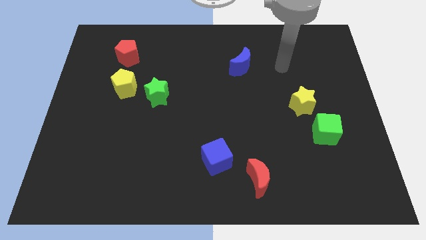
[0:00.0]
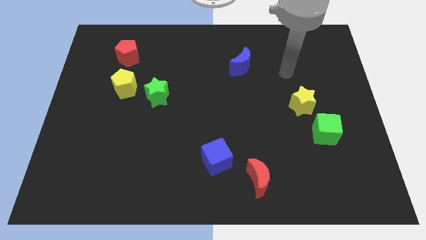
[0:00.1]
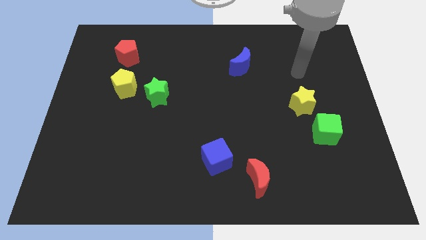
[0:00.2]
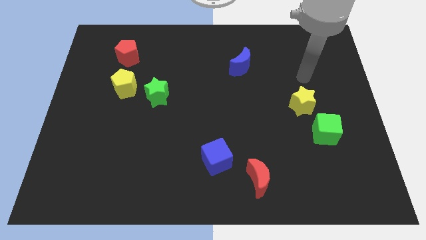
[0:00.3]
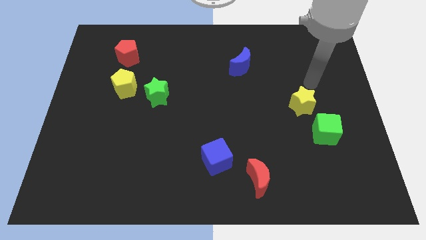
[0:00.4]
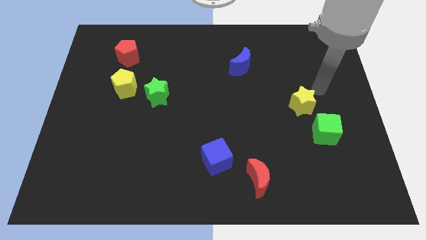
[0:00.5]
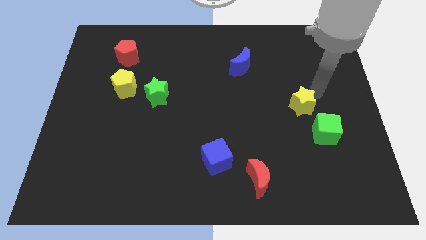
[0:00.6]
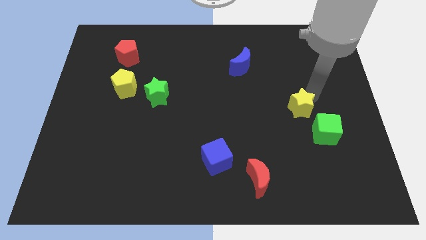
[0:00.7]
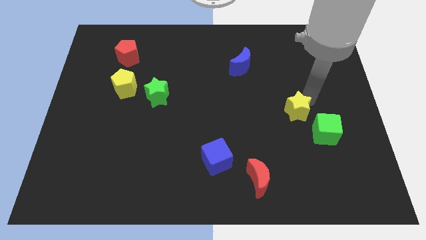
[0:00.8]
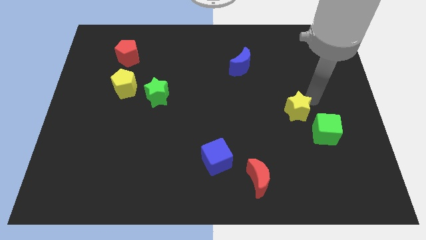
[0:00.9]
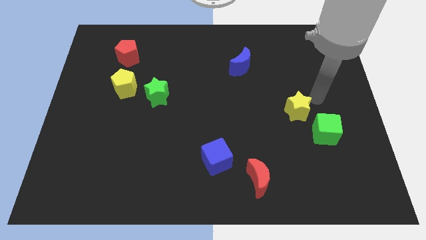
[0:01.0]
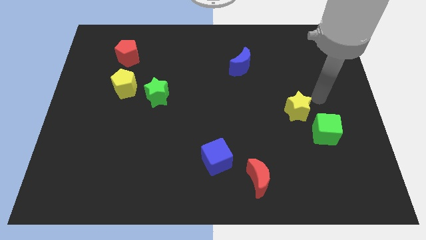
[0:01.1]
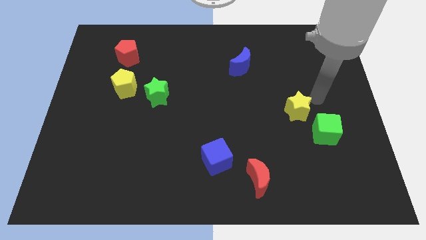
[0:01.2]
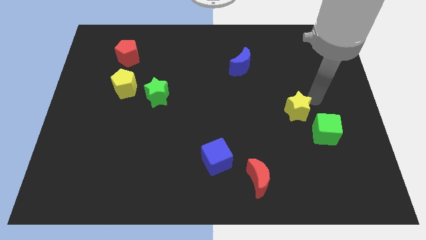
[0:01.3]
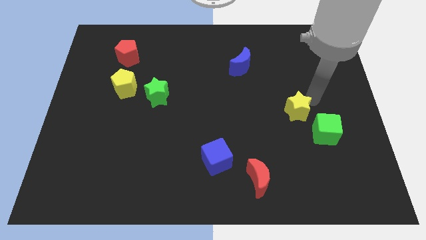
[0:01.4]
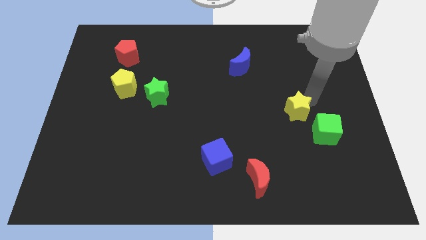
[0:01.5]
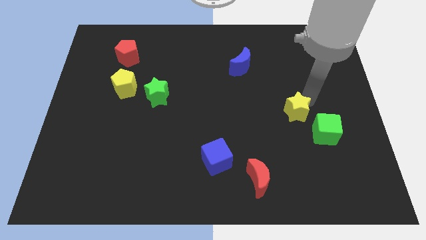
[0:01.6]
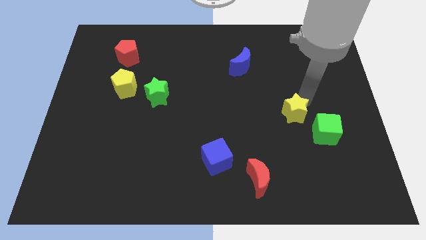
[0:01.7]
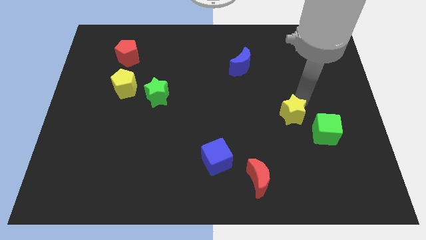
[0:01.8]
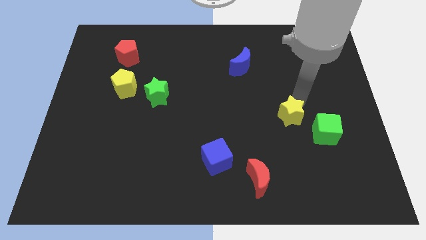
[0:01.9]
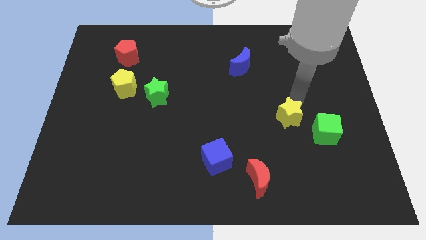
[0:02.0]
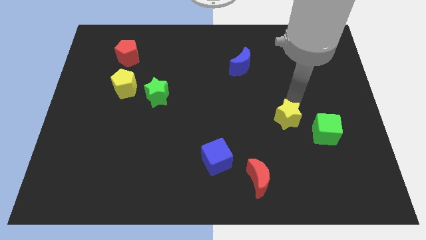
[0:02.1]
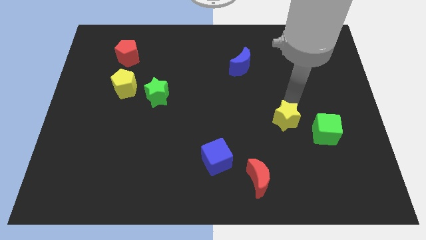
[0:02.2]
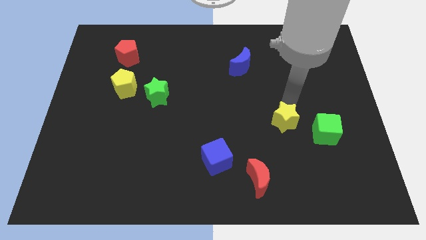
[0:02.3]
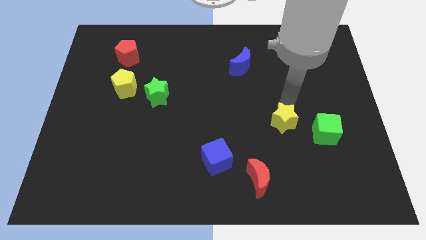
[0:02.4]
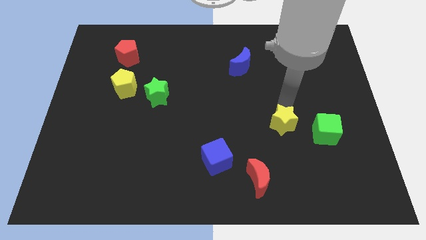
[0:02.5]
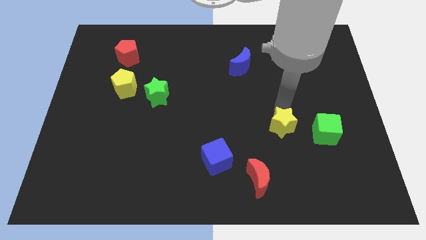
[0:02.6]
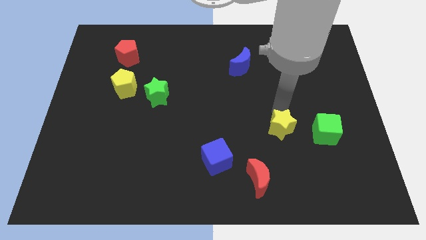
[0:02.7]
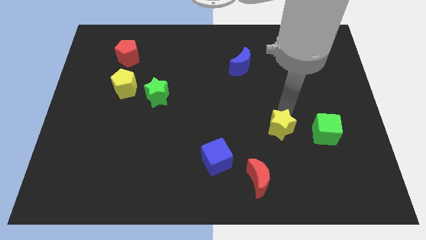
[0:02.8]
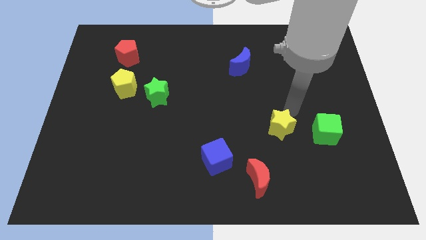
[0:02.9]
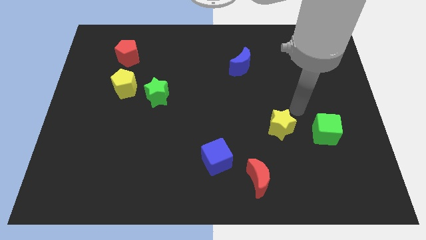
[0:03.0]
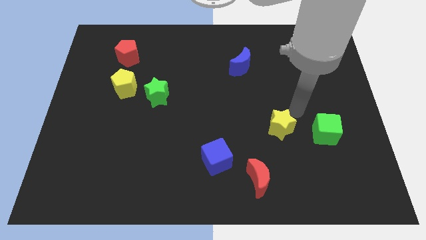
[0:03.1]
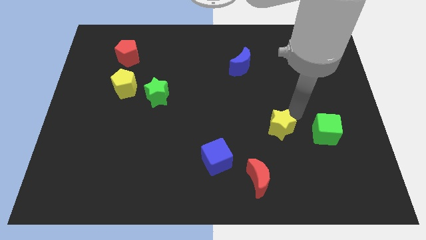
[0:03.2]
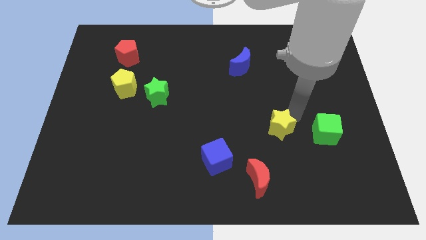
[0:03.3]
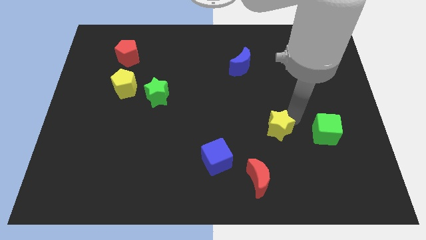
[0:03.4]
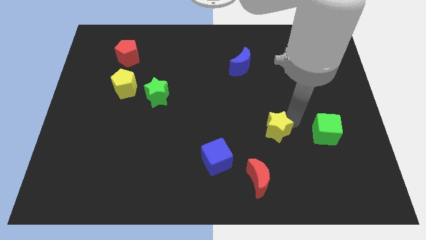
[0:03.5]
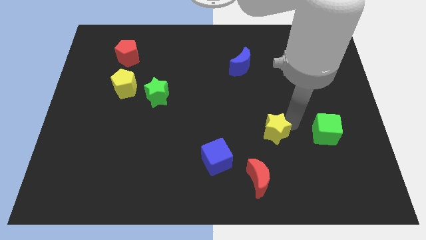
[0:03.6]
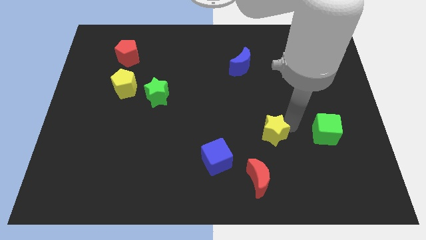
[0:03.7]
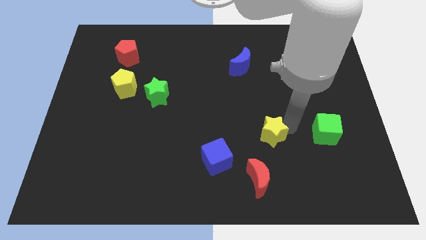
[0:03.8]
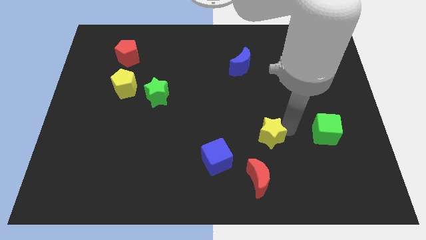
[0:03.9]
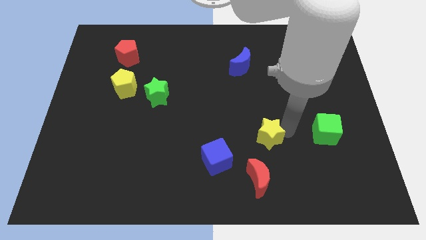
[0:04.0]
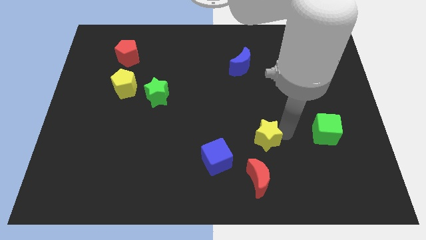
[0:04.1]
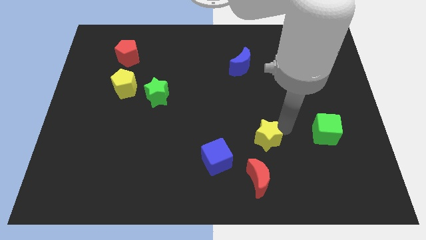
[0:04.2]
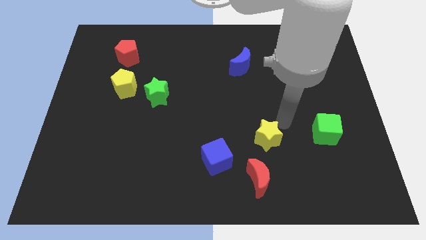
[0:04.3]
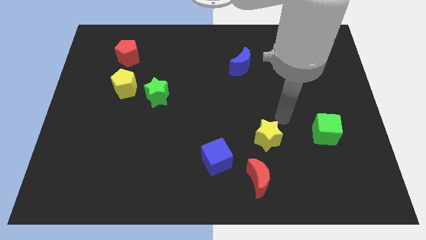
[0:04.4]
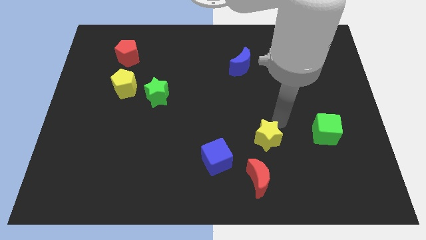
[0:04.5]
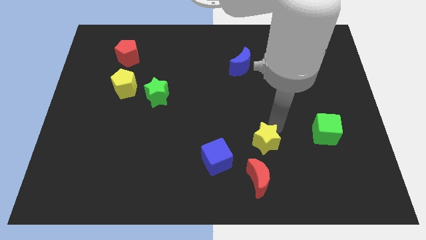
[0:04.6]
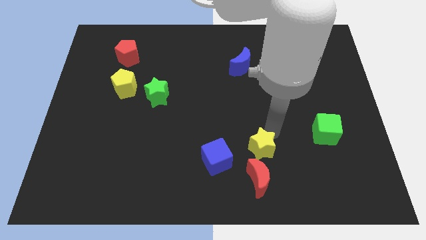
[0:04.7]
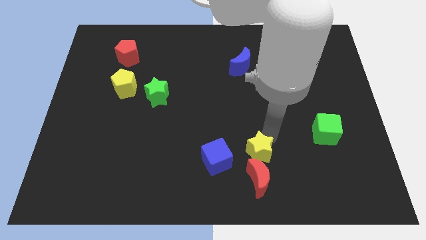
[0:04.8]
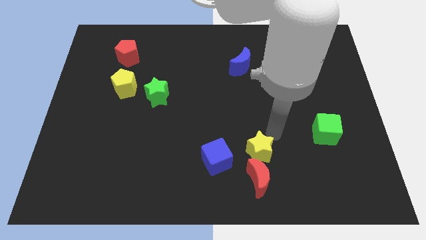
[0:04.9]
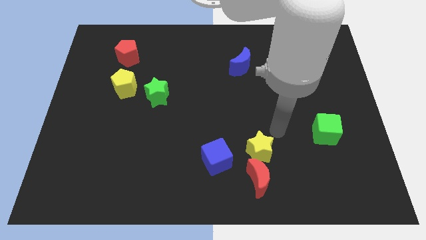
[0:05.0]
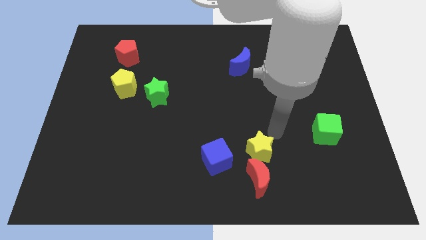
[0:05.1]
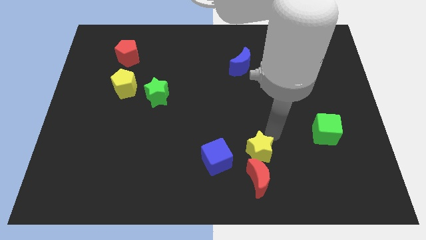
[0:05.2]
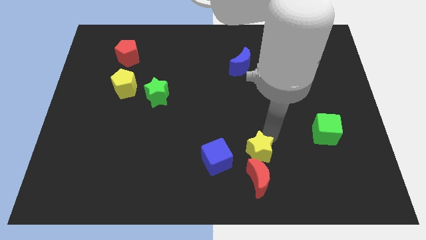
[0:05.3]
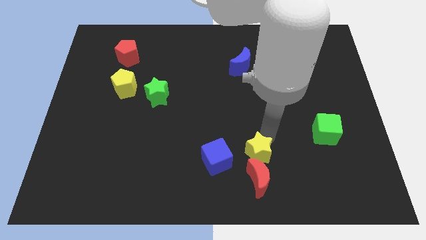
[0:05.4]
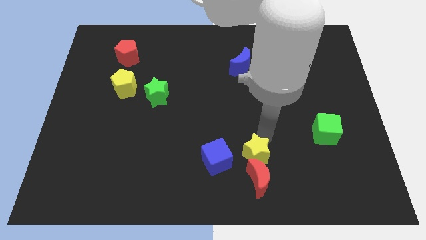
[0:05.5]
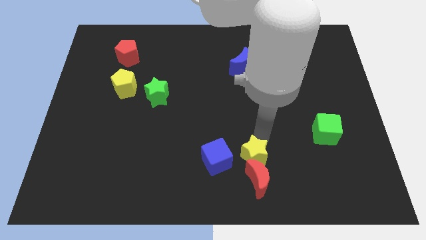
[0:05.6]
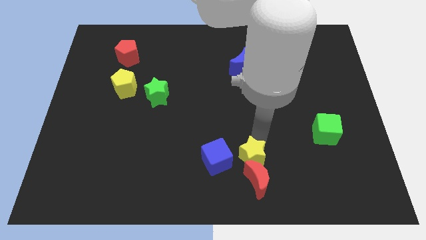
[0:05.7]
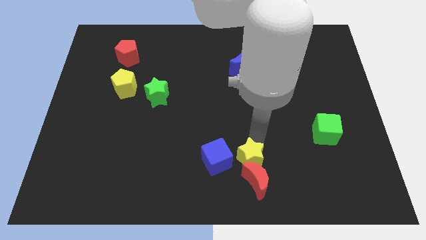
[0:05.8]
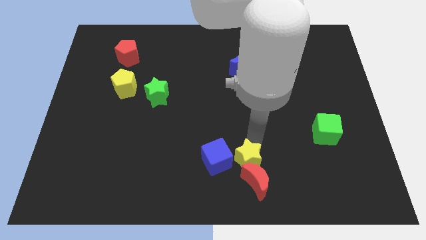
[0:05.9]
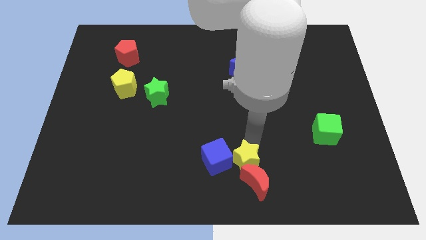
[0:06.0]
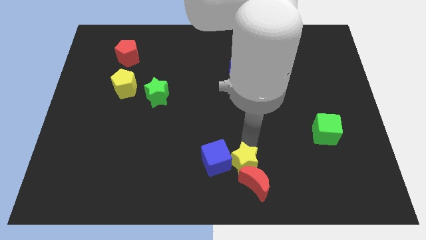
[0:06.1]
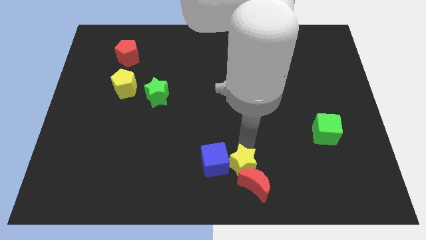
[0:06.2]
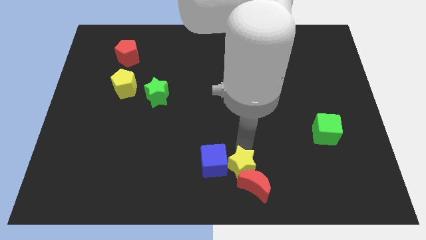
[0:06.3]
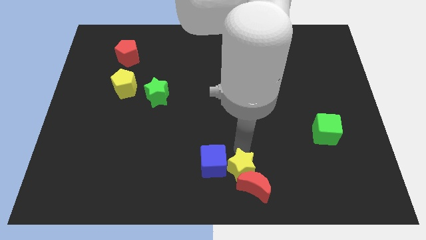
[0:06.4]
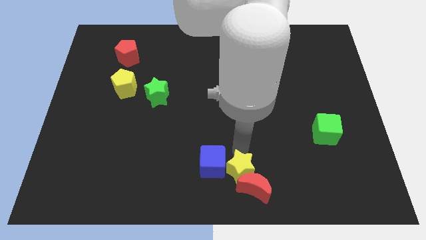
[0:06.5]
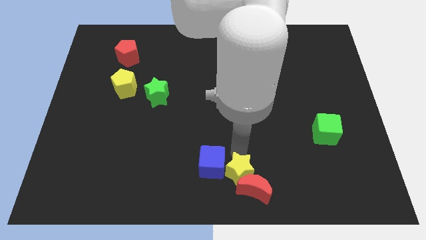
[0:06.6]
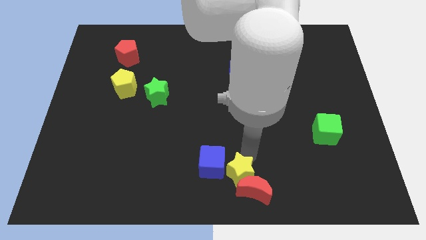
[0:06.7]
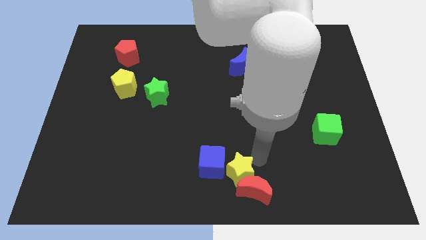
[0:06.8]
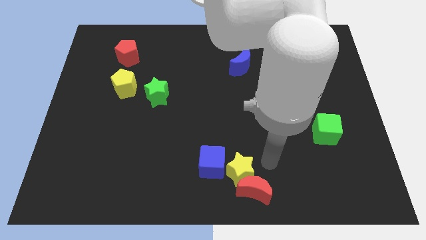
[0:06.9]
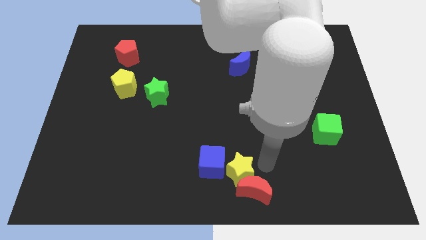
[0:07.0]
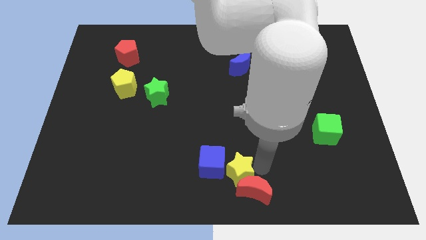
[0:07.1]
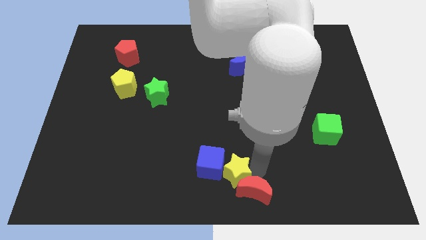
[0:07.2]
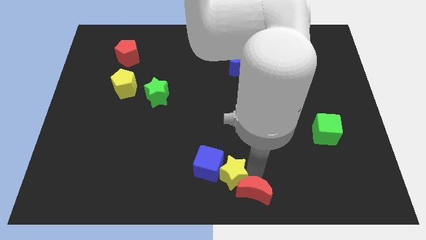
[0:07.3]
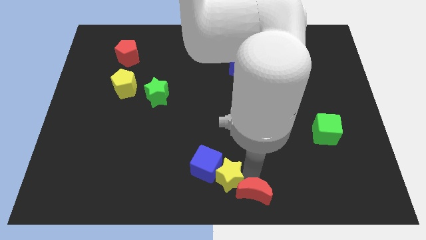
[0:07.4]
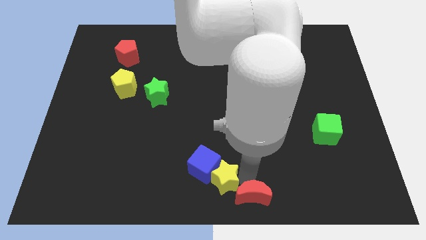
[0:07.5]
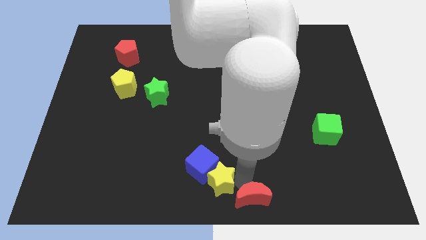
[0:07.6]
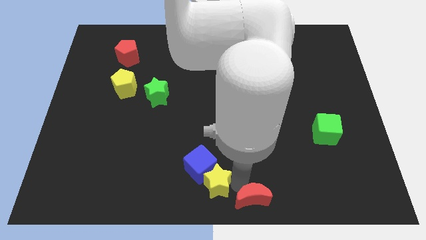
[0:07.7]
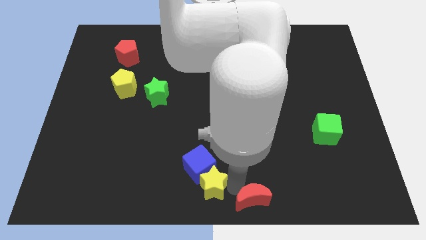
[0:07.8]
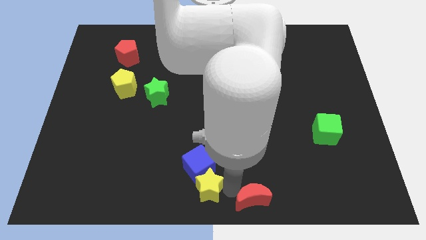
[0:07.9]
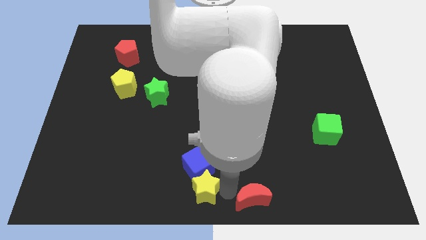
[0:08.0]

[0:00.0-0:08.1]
move the yellow star to the bottom left of the blue cube
